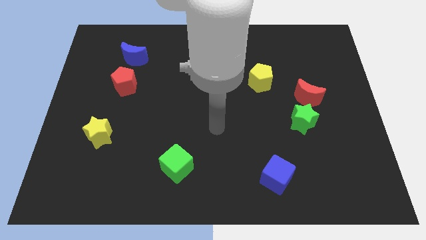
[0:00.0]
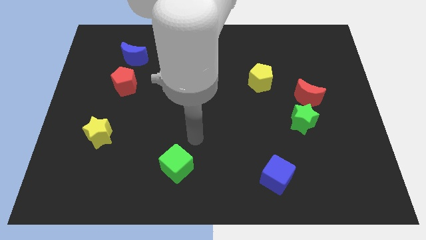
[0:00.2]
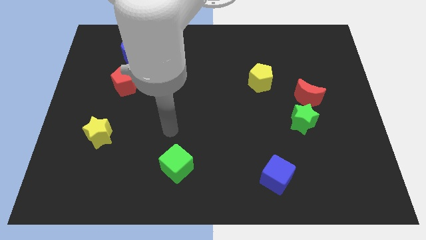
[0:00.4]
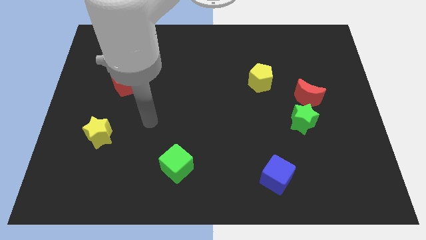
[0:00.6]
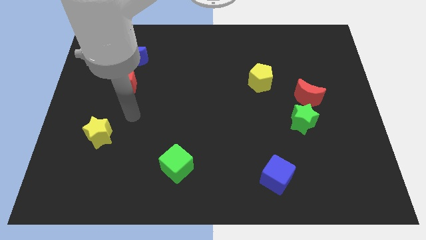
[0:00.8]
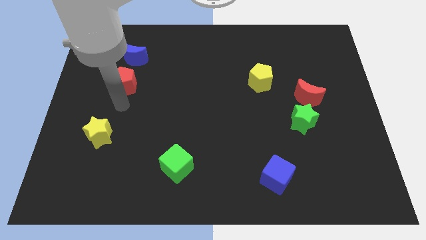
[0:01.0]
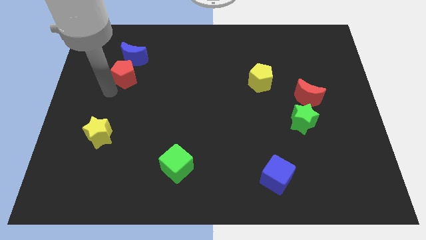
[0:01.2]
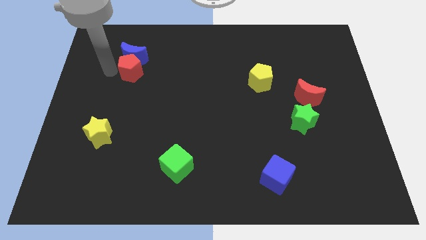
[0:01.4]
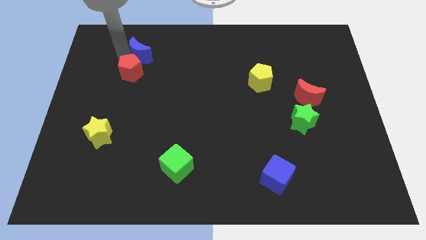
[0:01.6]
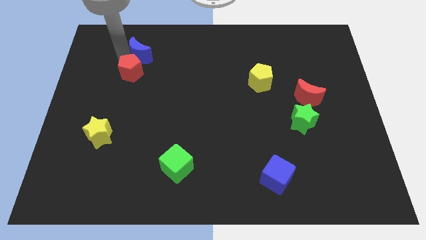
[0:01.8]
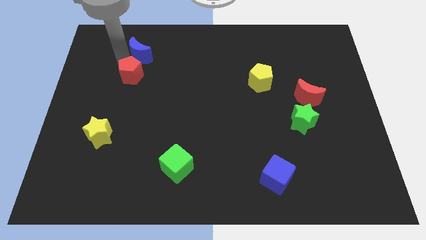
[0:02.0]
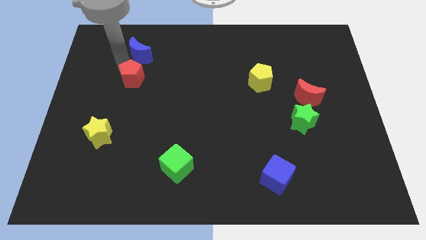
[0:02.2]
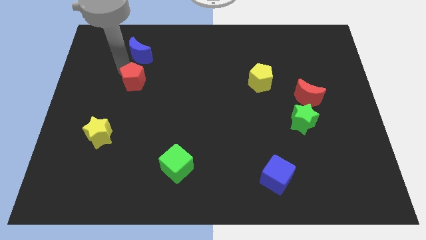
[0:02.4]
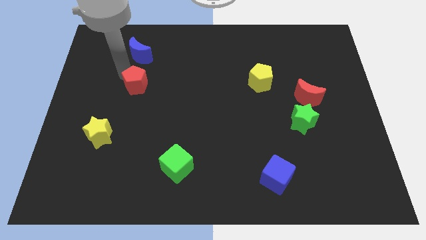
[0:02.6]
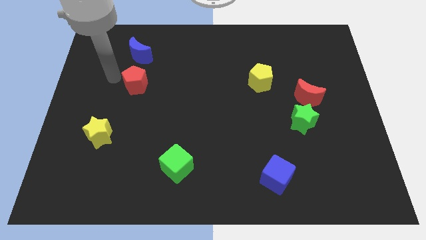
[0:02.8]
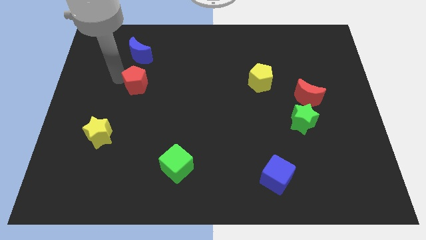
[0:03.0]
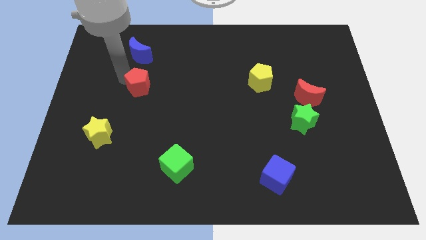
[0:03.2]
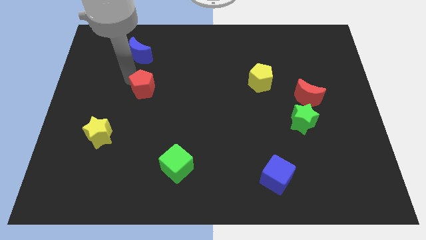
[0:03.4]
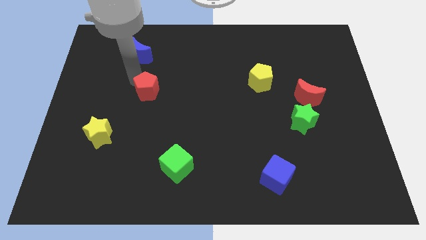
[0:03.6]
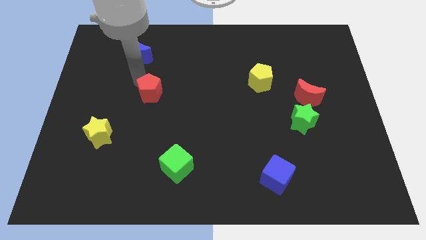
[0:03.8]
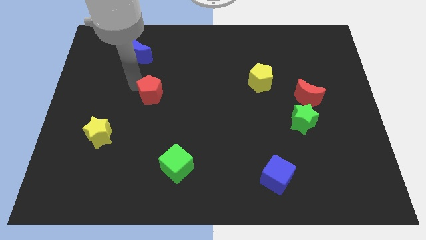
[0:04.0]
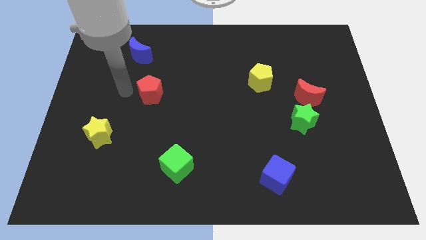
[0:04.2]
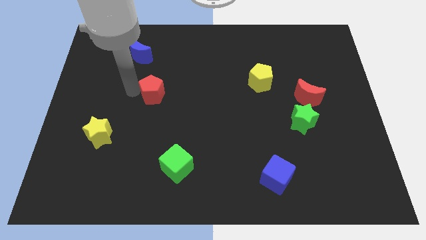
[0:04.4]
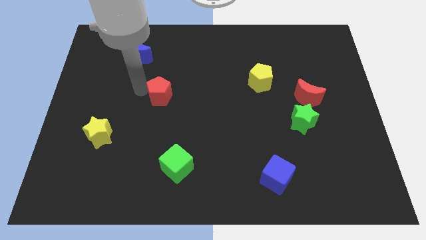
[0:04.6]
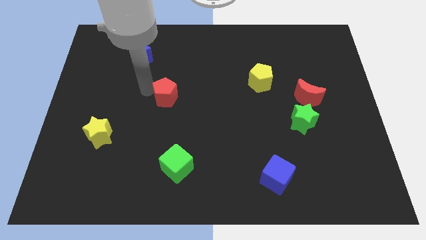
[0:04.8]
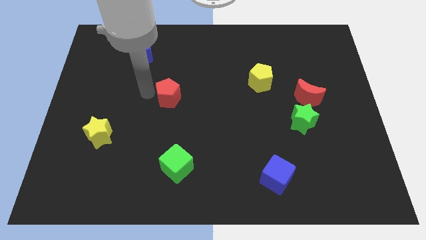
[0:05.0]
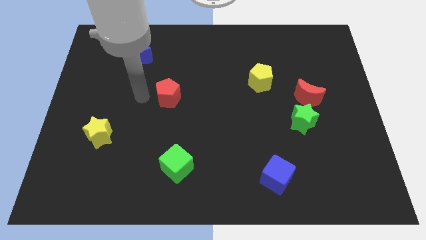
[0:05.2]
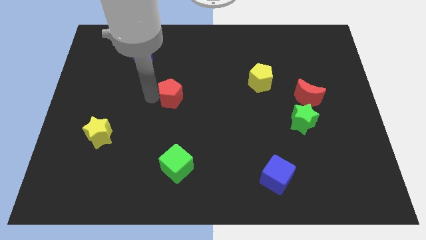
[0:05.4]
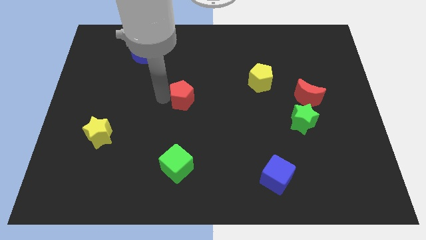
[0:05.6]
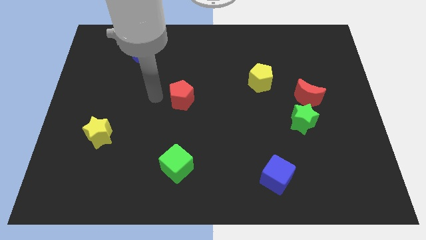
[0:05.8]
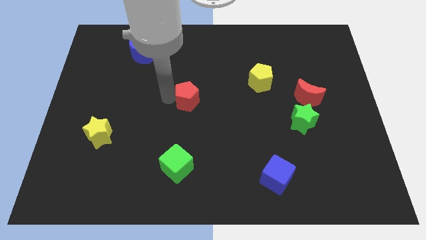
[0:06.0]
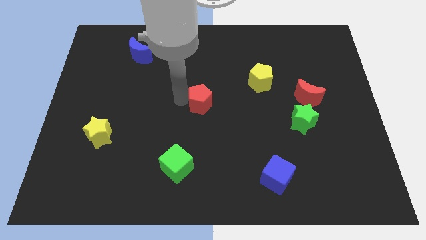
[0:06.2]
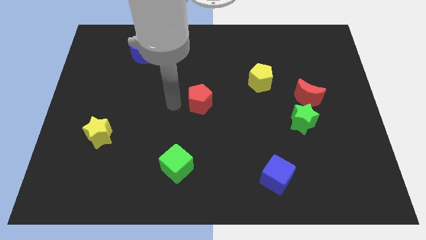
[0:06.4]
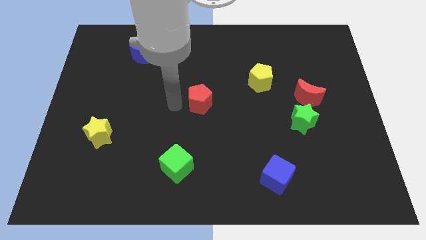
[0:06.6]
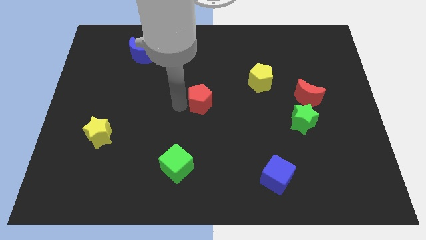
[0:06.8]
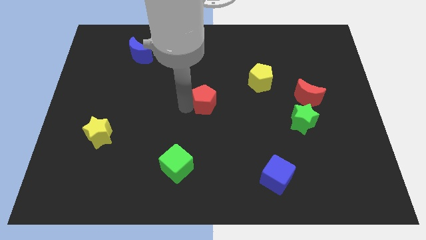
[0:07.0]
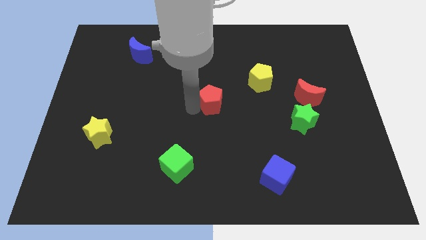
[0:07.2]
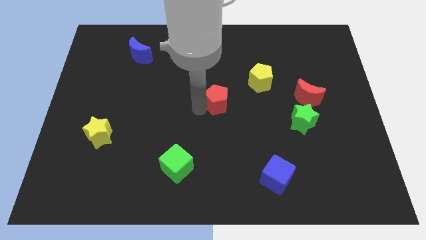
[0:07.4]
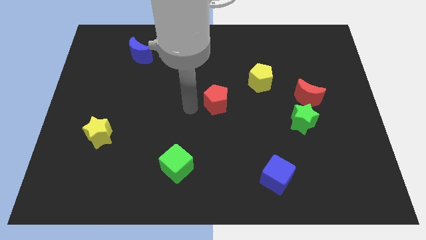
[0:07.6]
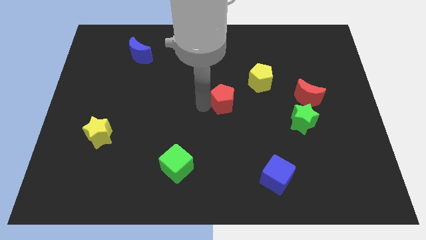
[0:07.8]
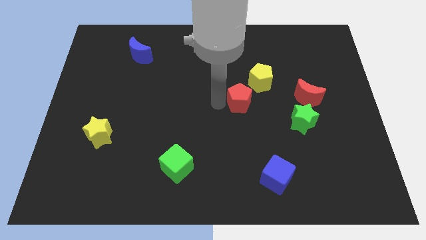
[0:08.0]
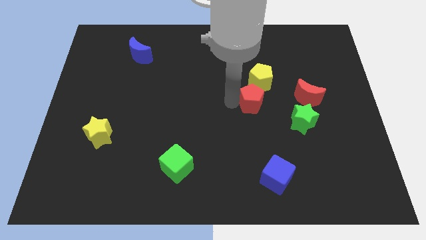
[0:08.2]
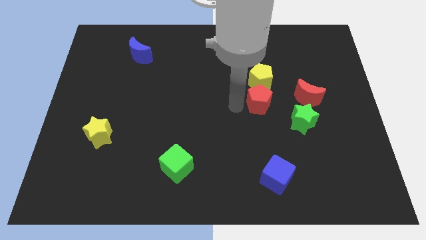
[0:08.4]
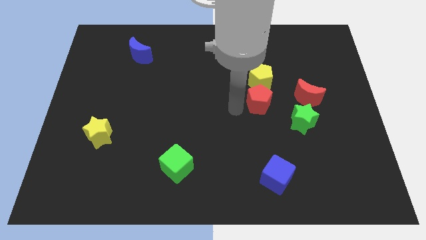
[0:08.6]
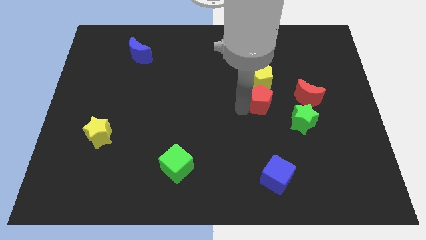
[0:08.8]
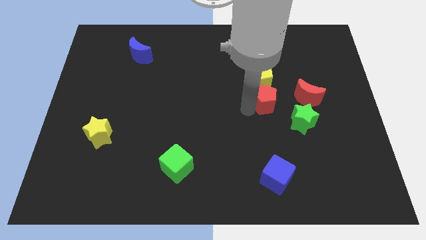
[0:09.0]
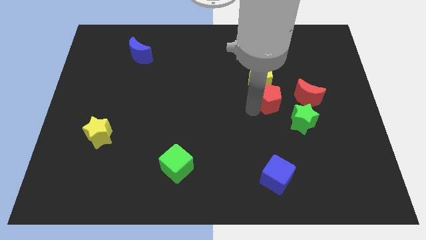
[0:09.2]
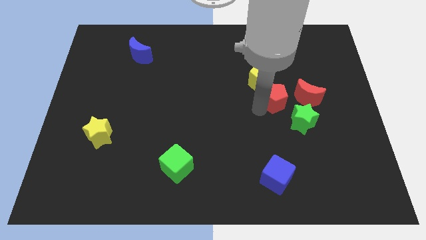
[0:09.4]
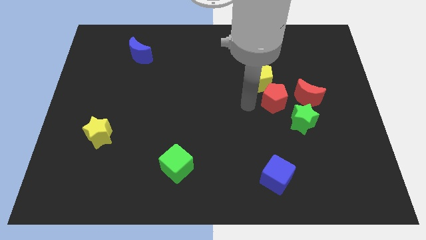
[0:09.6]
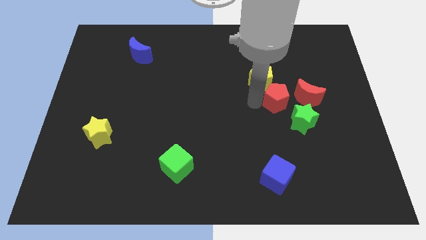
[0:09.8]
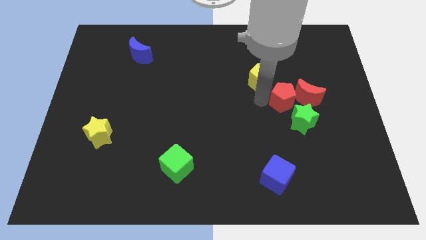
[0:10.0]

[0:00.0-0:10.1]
put the red pentagon next to the red moon

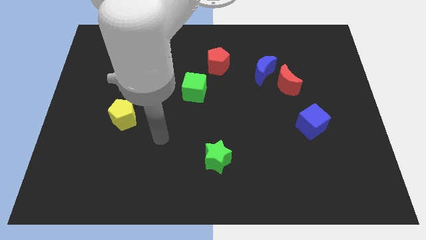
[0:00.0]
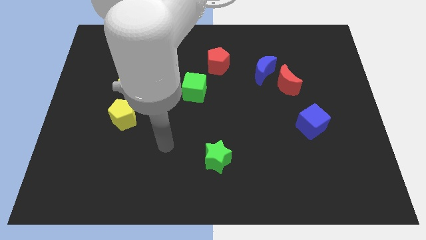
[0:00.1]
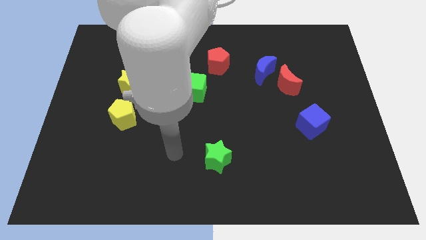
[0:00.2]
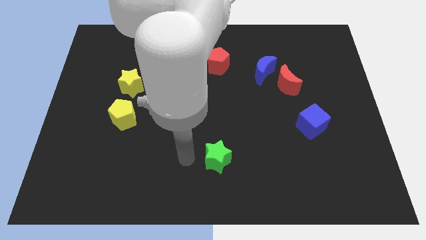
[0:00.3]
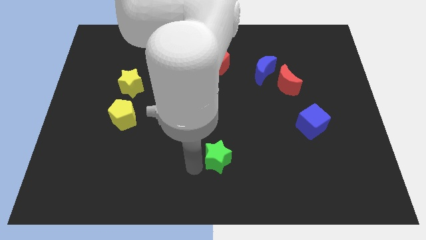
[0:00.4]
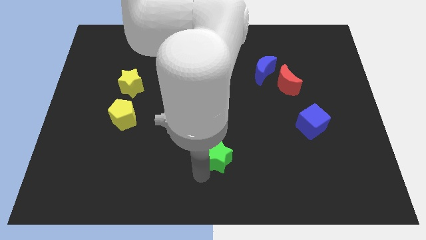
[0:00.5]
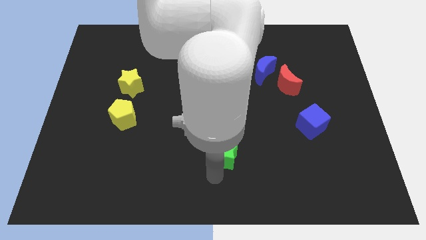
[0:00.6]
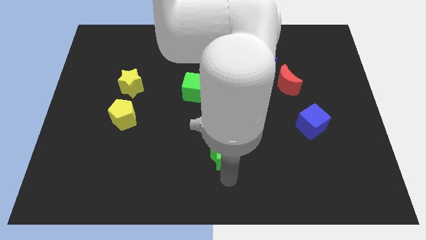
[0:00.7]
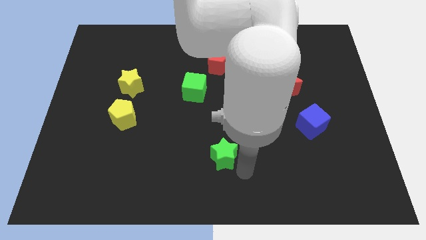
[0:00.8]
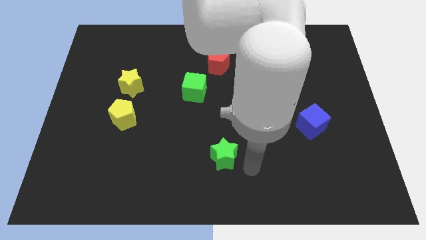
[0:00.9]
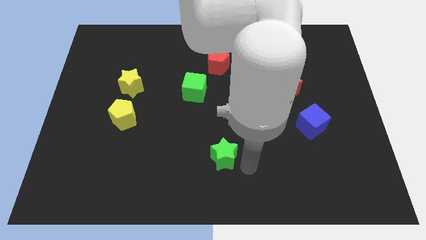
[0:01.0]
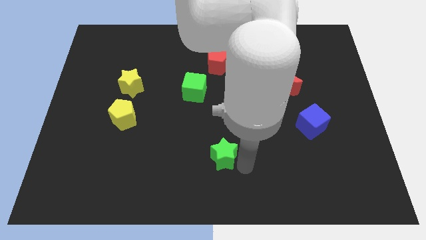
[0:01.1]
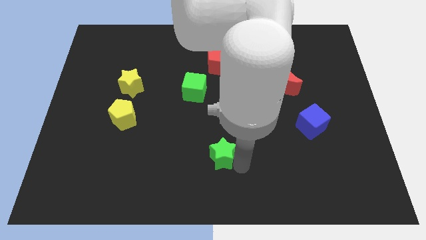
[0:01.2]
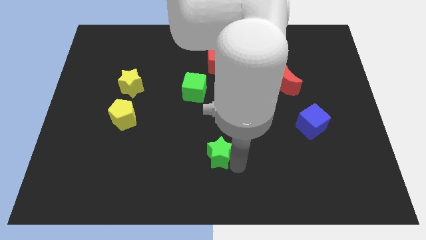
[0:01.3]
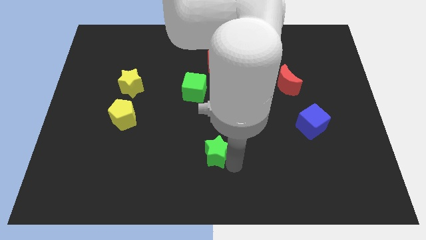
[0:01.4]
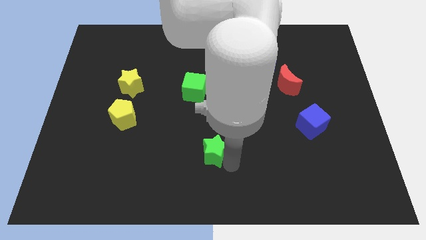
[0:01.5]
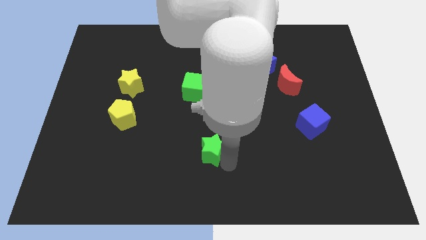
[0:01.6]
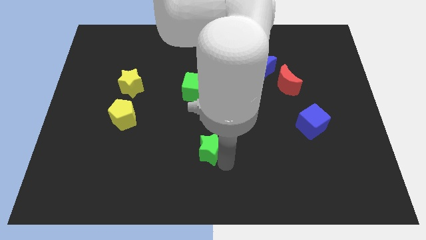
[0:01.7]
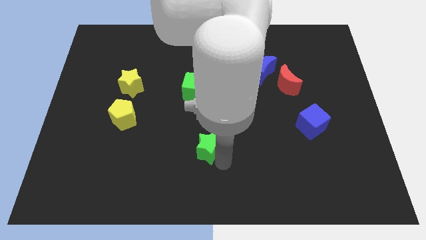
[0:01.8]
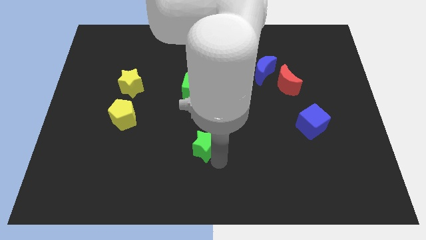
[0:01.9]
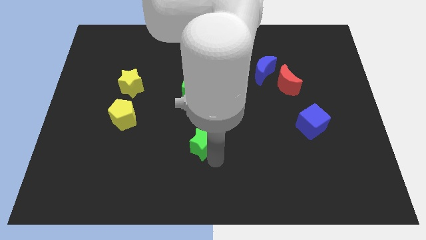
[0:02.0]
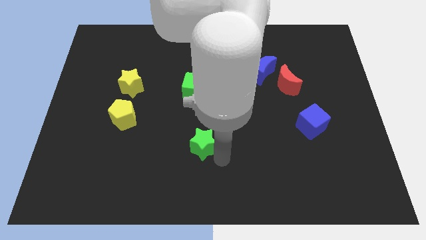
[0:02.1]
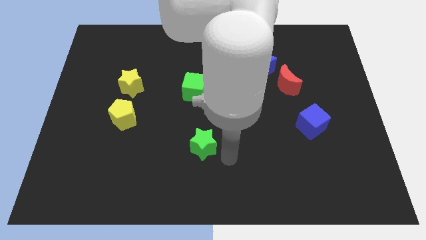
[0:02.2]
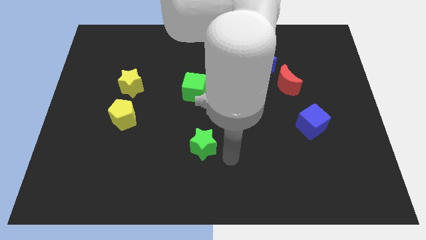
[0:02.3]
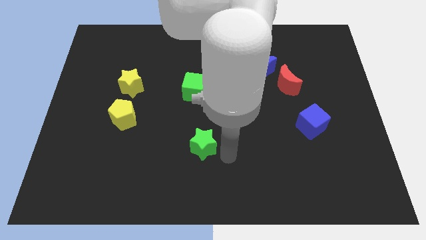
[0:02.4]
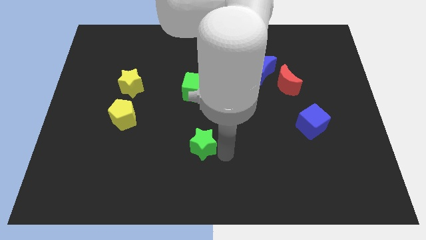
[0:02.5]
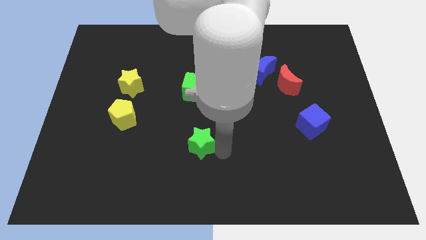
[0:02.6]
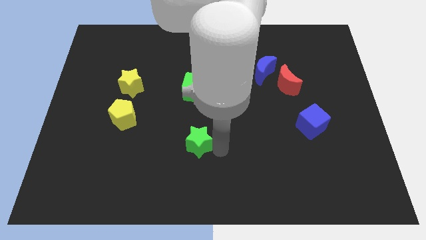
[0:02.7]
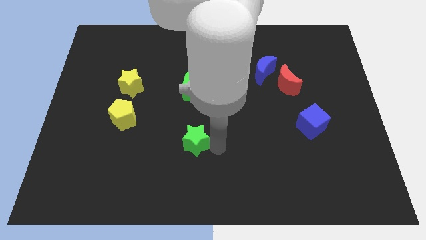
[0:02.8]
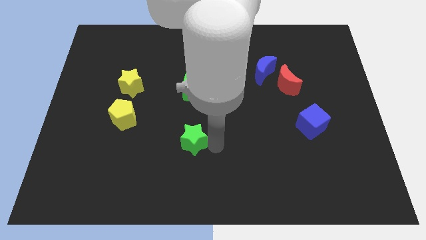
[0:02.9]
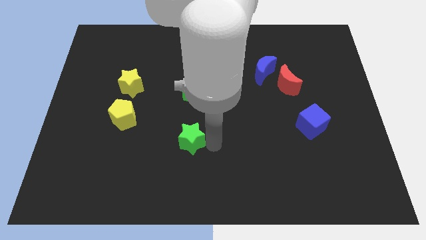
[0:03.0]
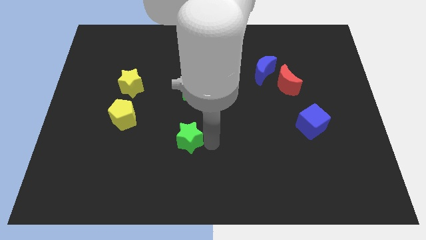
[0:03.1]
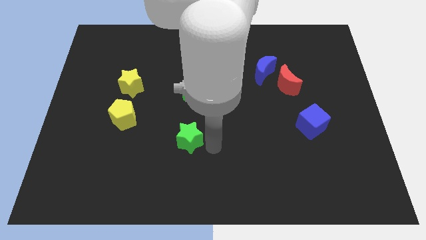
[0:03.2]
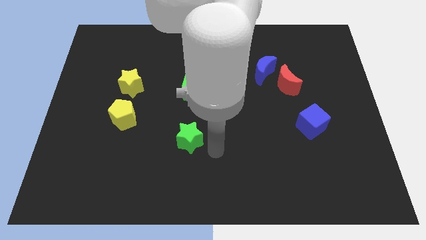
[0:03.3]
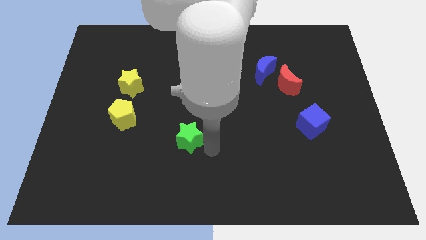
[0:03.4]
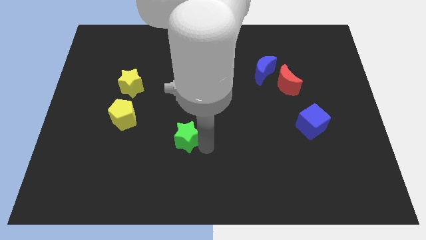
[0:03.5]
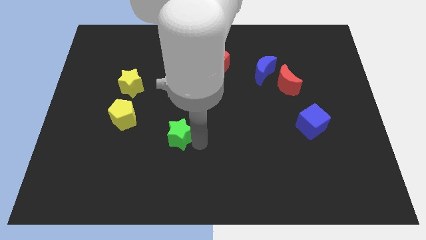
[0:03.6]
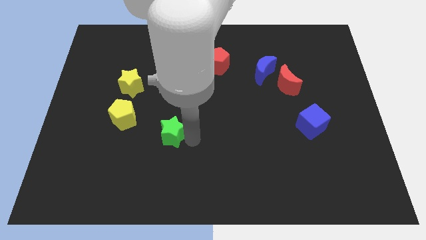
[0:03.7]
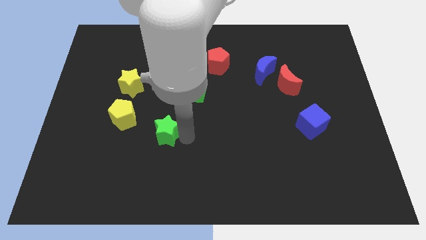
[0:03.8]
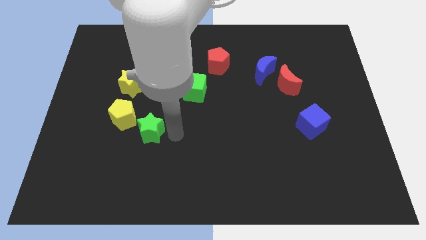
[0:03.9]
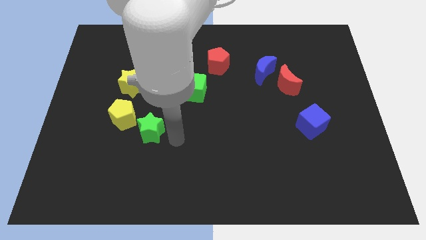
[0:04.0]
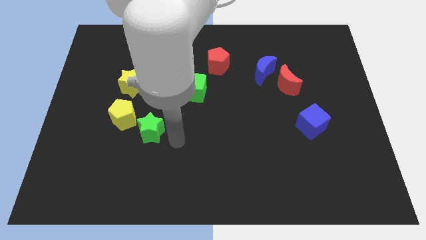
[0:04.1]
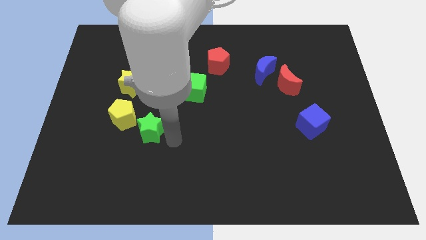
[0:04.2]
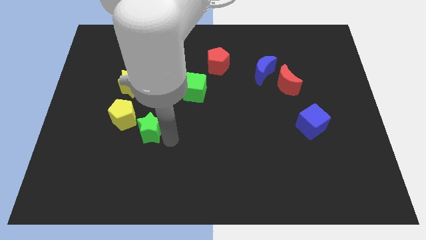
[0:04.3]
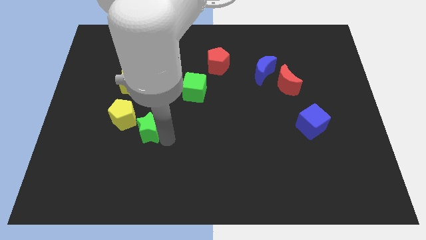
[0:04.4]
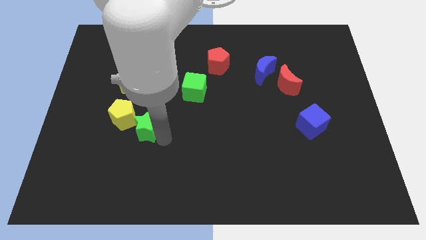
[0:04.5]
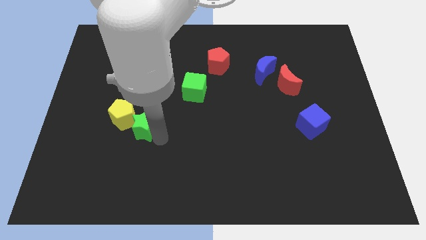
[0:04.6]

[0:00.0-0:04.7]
put the green star towards the yellow pentagon
